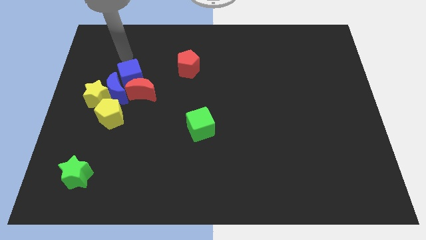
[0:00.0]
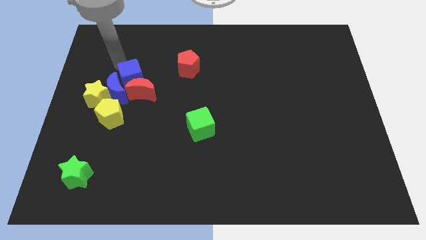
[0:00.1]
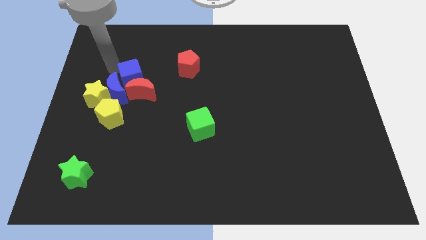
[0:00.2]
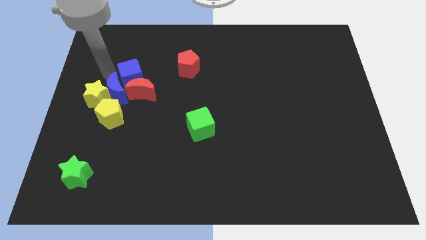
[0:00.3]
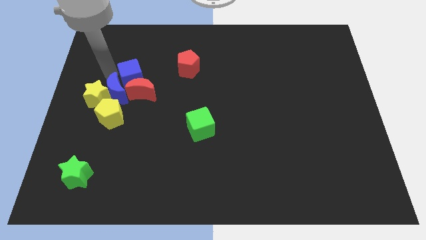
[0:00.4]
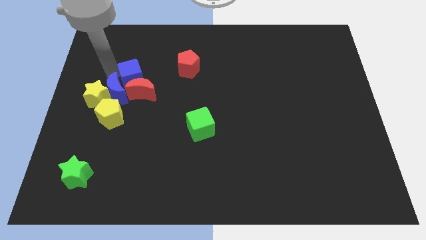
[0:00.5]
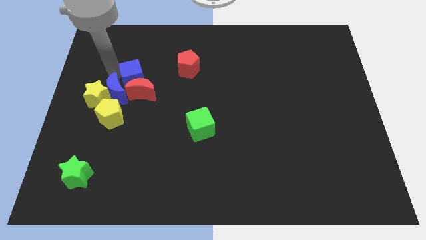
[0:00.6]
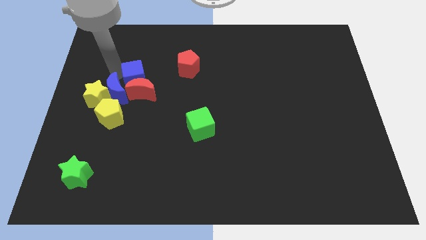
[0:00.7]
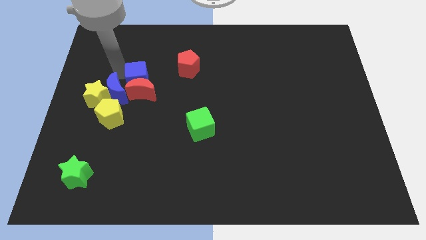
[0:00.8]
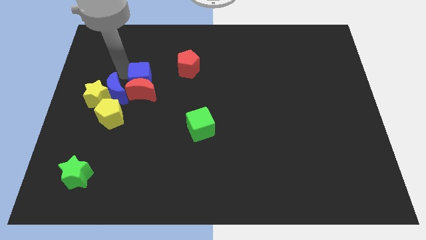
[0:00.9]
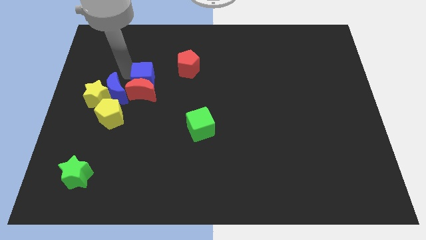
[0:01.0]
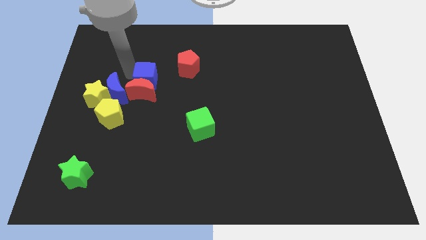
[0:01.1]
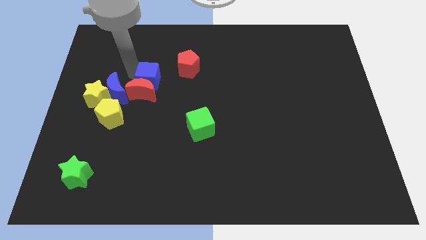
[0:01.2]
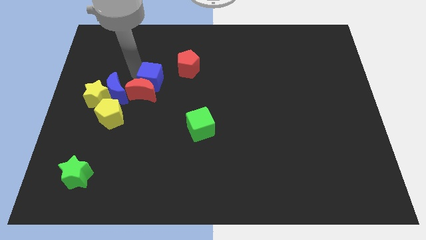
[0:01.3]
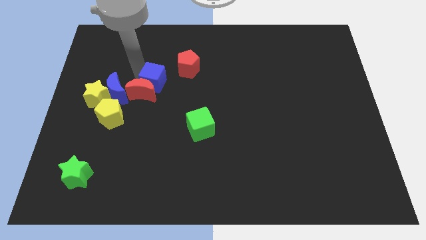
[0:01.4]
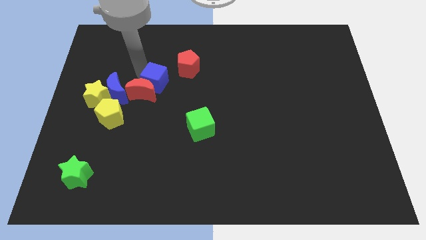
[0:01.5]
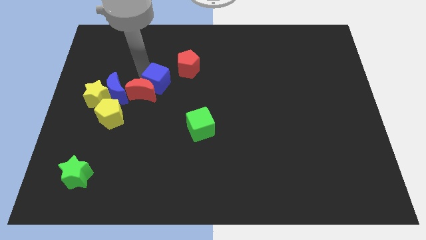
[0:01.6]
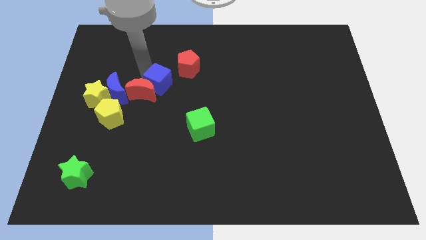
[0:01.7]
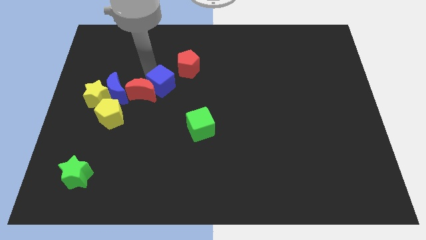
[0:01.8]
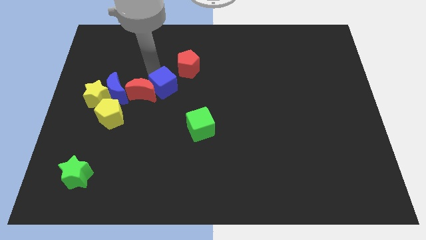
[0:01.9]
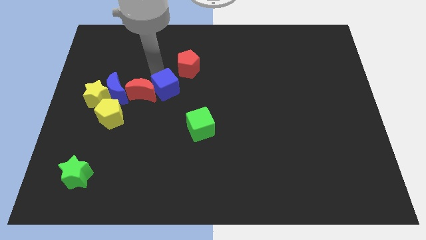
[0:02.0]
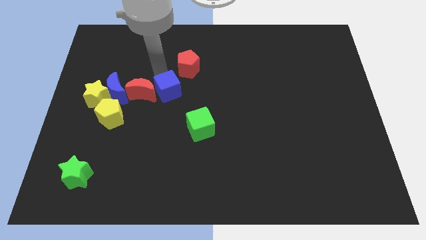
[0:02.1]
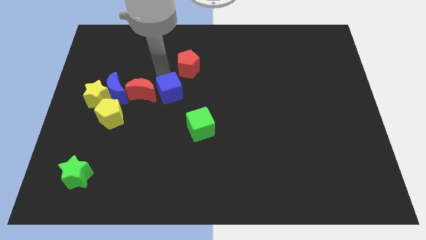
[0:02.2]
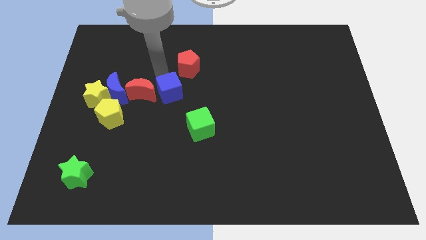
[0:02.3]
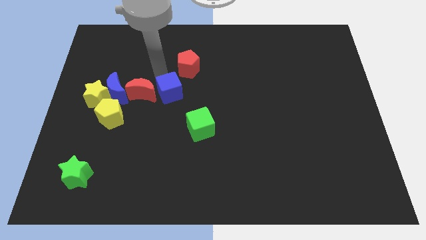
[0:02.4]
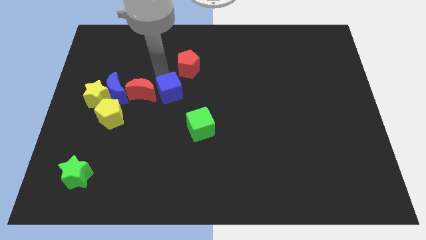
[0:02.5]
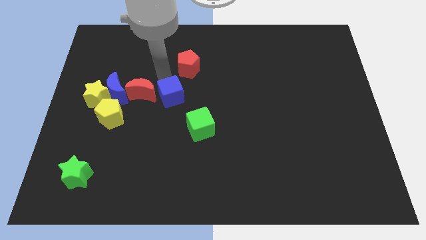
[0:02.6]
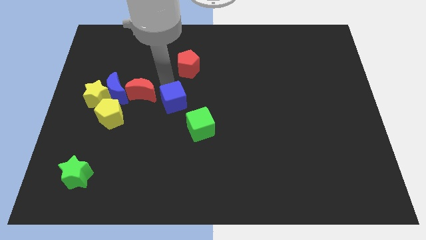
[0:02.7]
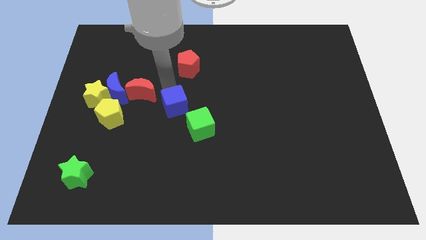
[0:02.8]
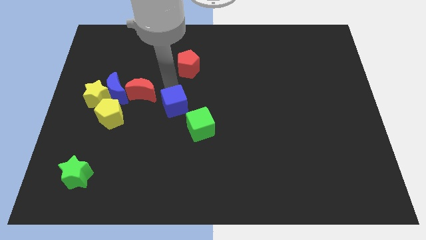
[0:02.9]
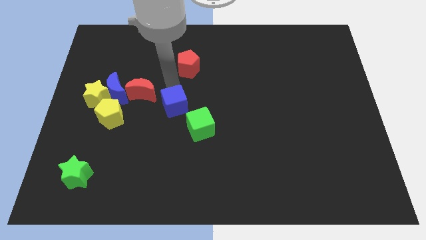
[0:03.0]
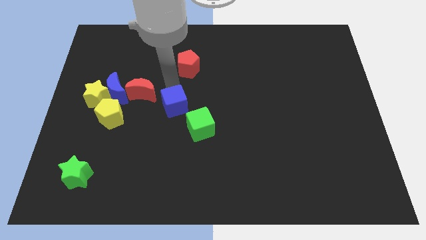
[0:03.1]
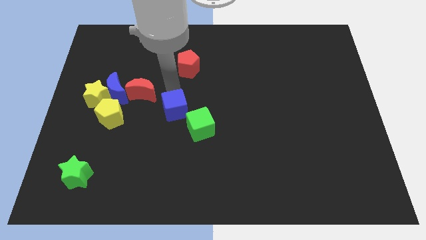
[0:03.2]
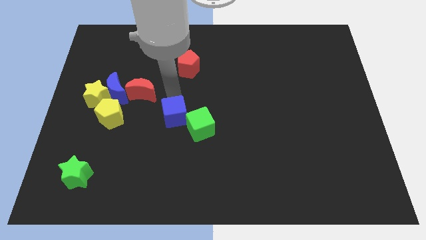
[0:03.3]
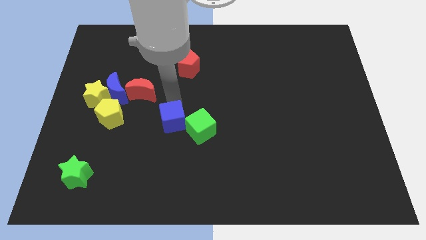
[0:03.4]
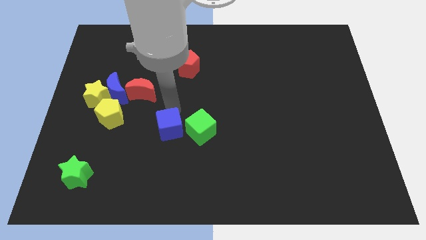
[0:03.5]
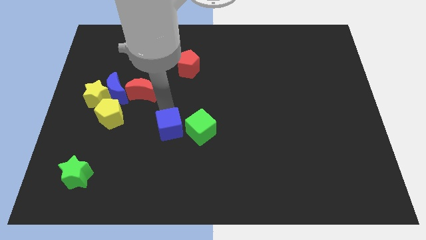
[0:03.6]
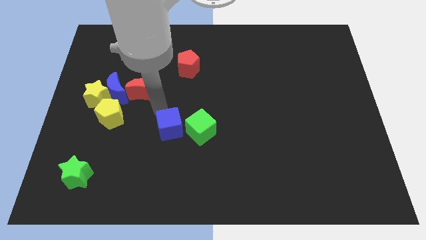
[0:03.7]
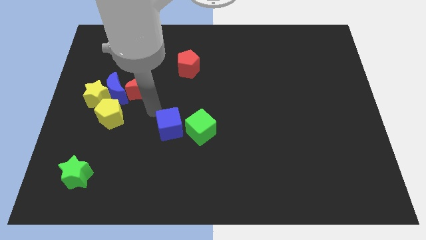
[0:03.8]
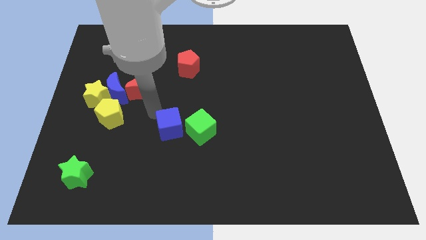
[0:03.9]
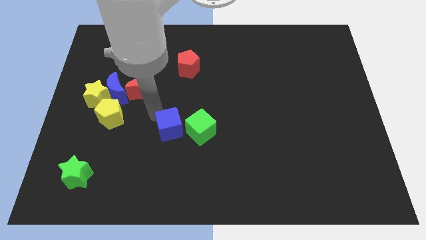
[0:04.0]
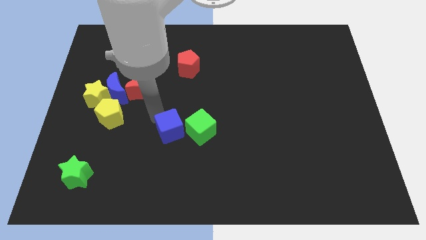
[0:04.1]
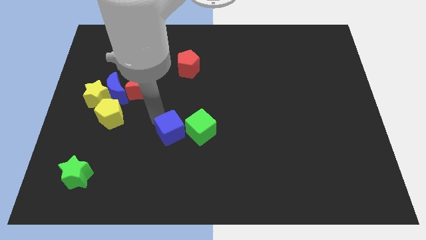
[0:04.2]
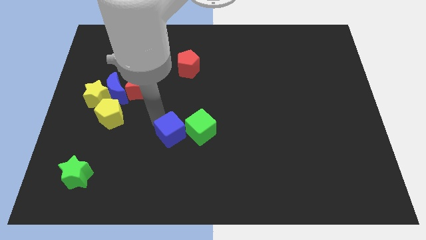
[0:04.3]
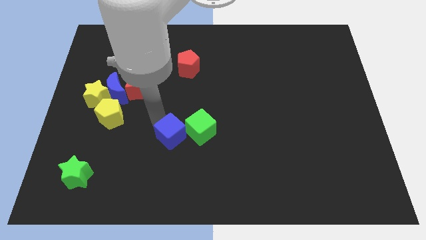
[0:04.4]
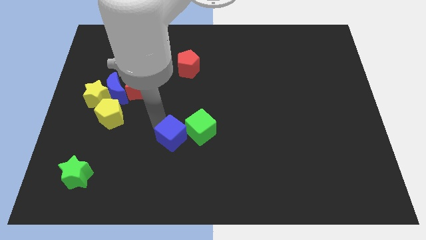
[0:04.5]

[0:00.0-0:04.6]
move the blue cube diagonally down and right

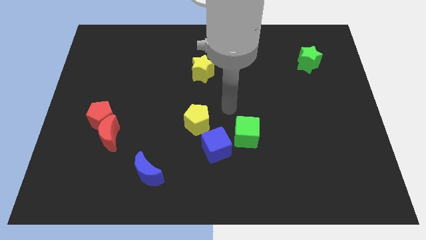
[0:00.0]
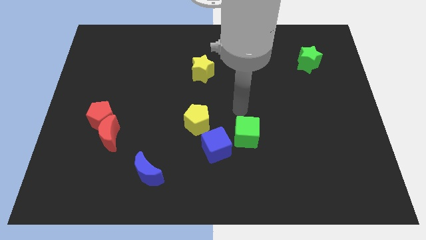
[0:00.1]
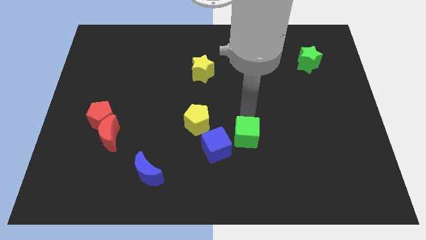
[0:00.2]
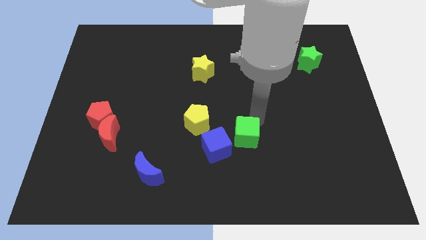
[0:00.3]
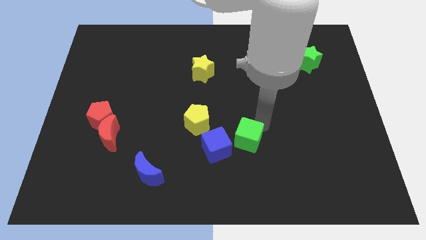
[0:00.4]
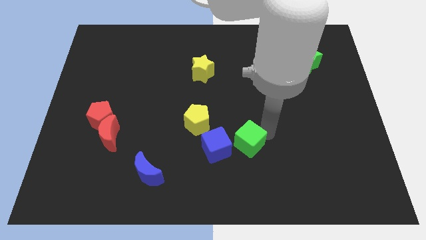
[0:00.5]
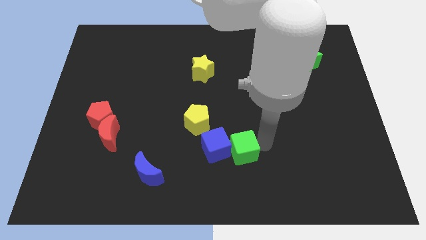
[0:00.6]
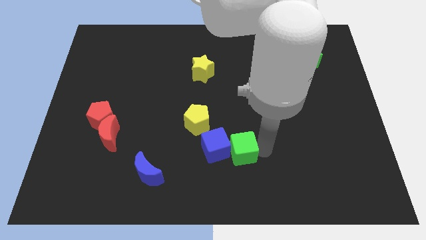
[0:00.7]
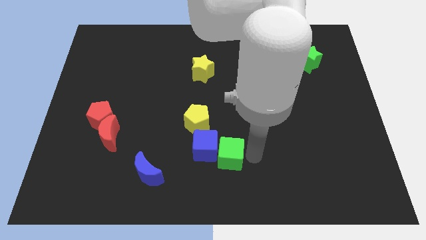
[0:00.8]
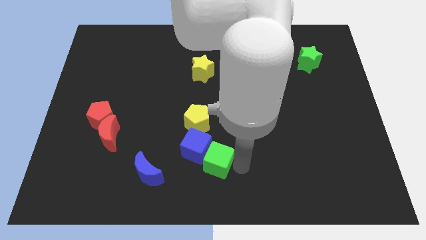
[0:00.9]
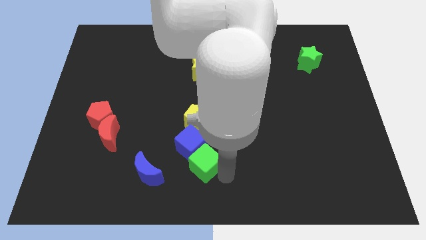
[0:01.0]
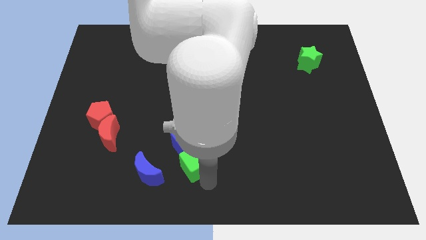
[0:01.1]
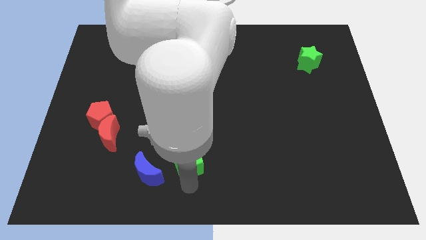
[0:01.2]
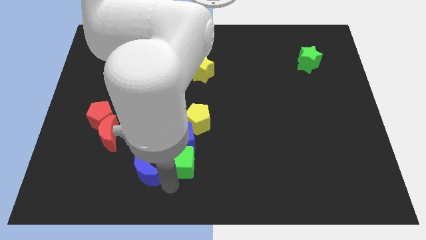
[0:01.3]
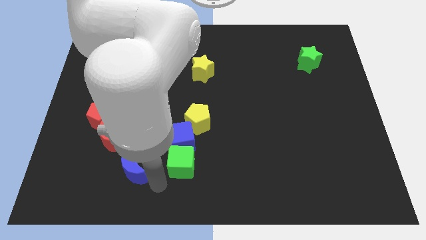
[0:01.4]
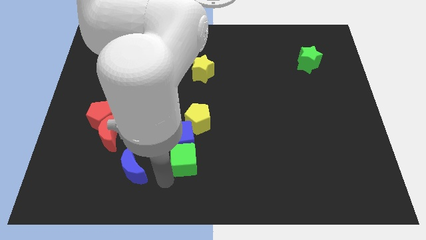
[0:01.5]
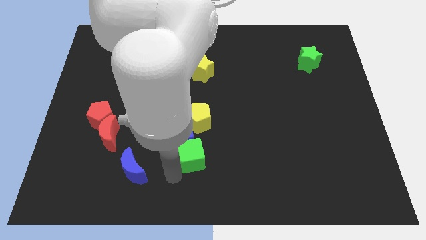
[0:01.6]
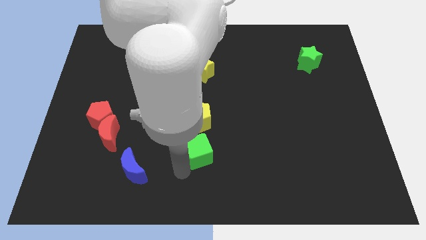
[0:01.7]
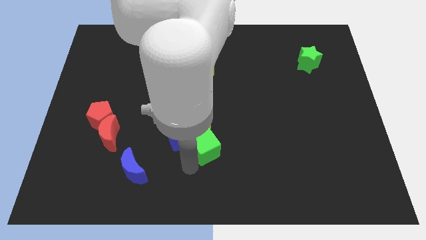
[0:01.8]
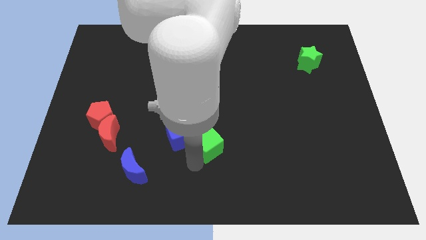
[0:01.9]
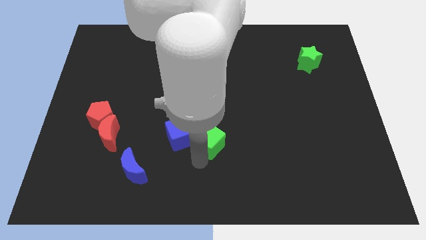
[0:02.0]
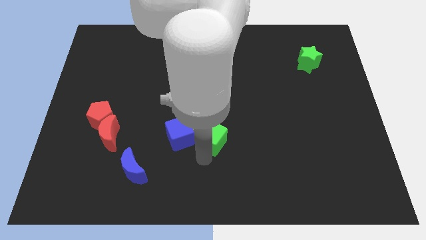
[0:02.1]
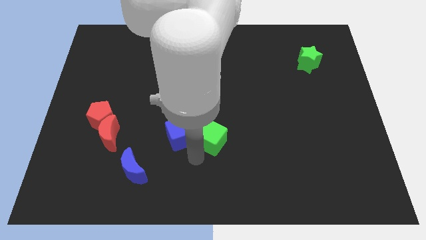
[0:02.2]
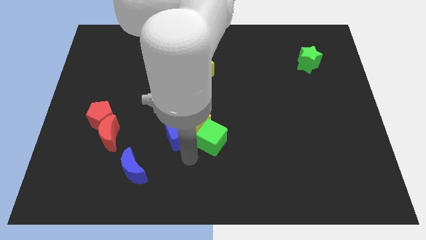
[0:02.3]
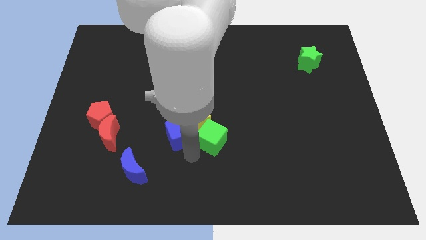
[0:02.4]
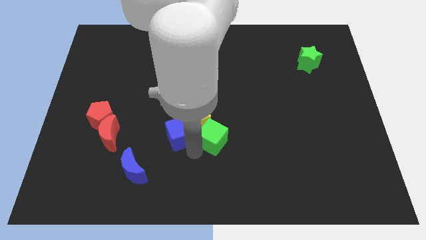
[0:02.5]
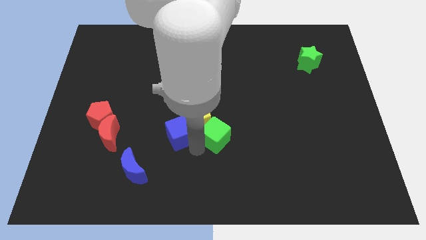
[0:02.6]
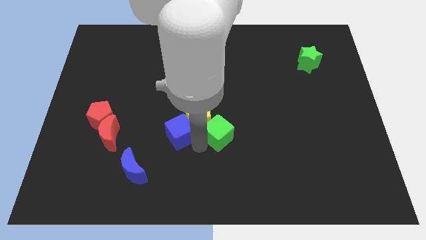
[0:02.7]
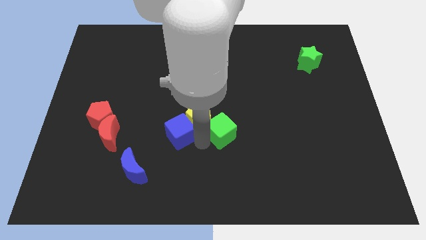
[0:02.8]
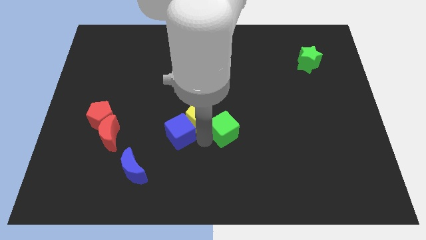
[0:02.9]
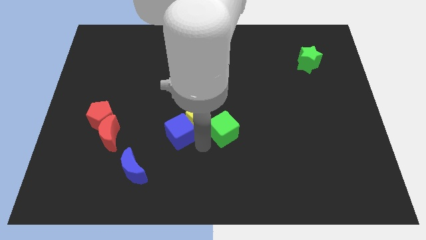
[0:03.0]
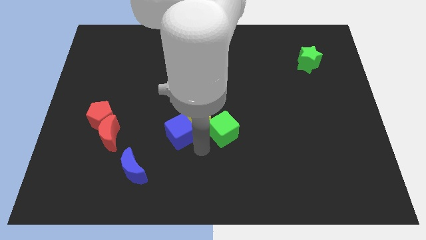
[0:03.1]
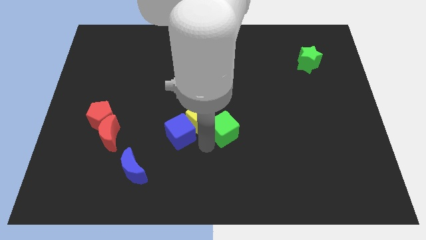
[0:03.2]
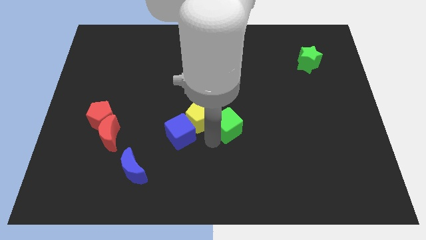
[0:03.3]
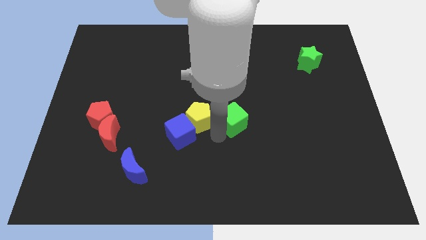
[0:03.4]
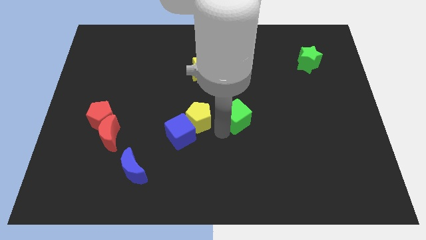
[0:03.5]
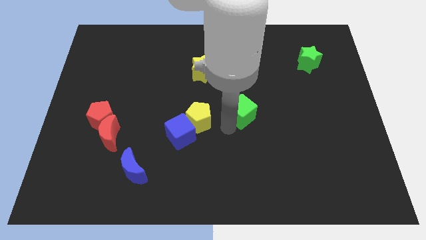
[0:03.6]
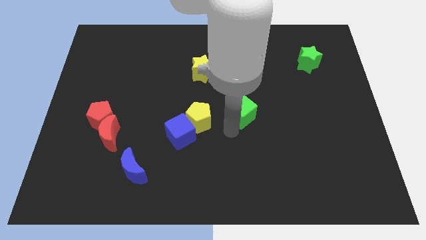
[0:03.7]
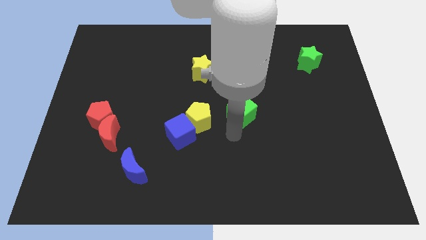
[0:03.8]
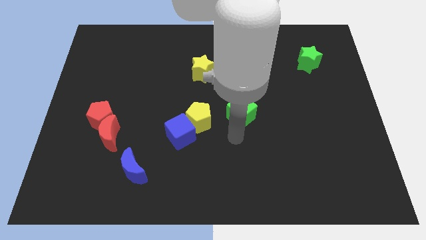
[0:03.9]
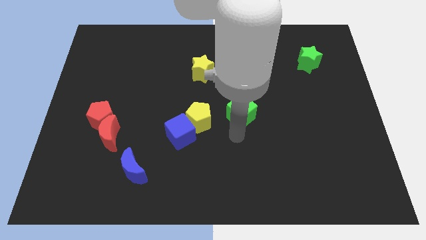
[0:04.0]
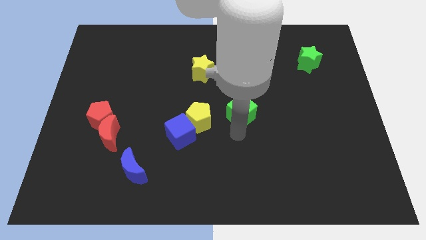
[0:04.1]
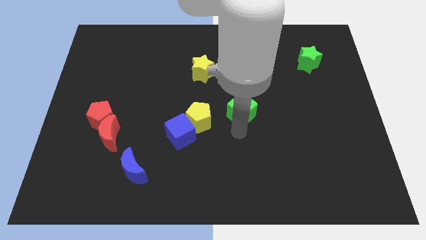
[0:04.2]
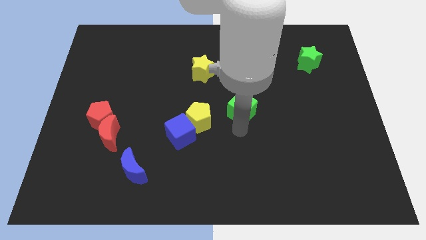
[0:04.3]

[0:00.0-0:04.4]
slightly move the green cube upwards
